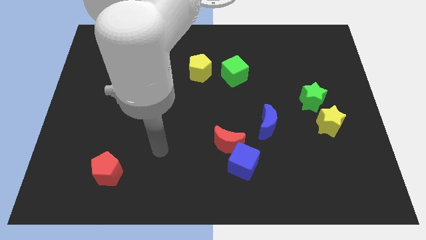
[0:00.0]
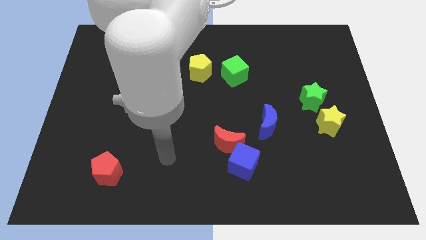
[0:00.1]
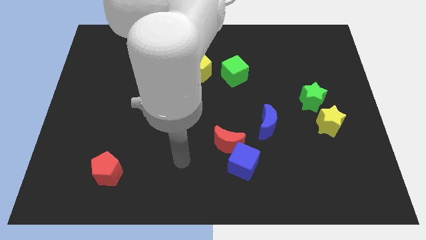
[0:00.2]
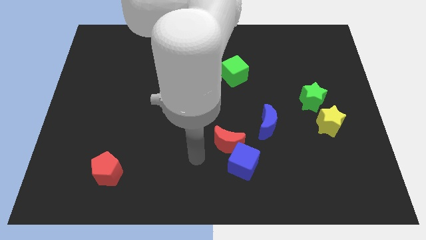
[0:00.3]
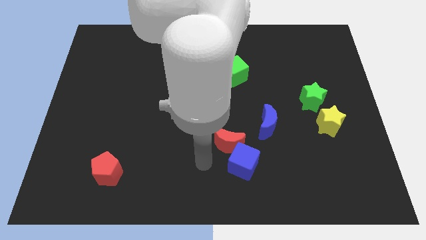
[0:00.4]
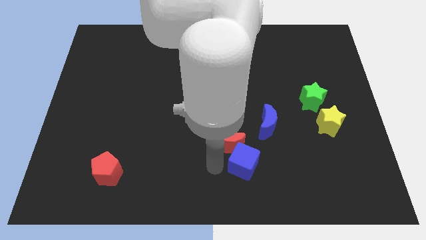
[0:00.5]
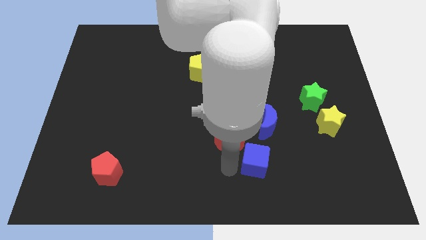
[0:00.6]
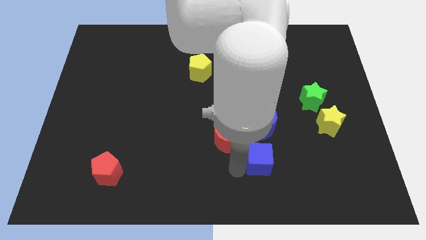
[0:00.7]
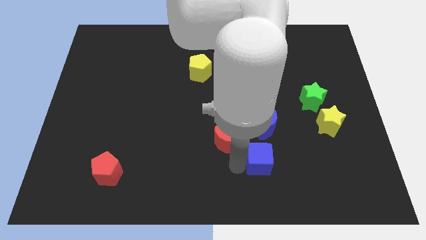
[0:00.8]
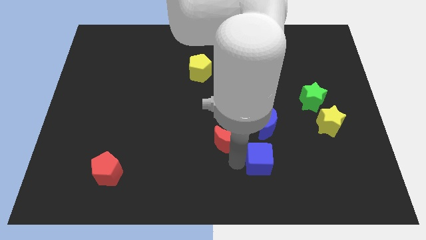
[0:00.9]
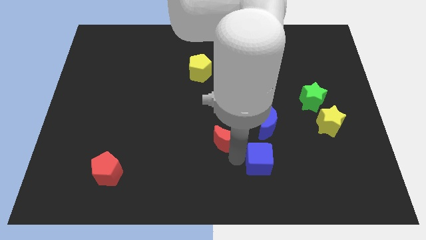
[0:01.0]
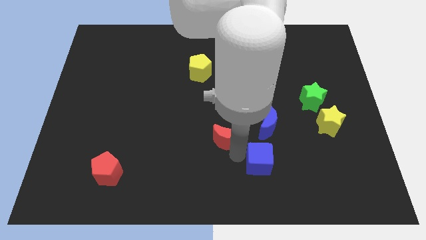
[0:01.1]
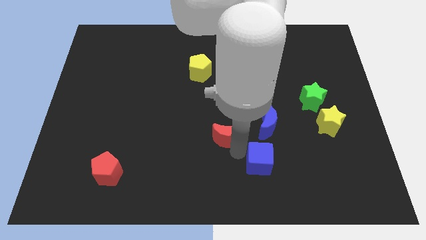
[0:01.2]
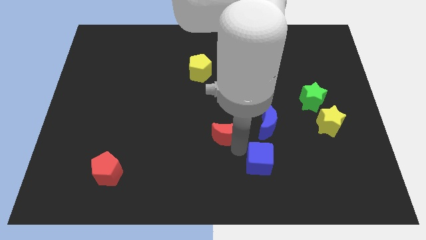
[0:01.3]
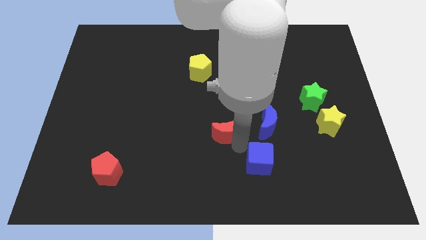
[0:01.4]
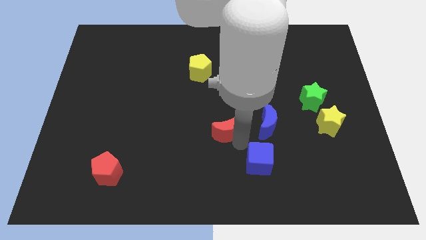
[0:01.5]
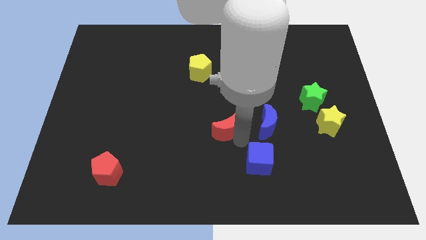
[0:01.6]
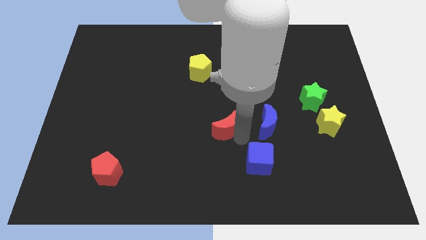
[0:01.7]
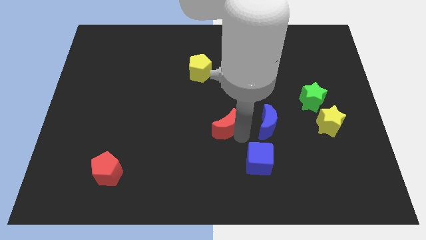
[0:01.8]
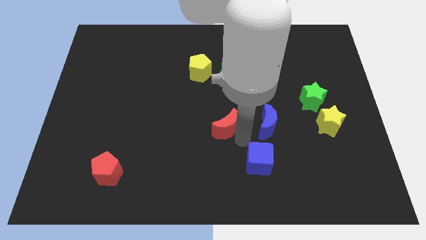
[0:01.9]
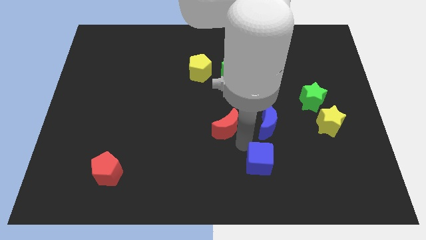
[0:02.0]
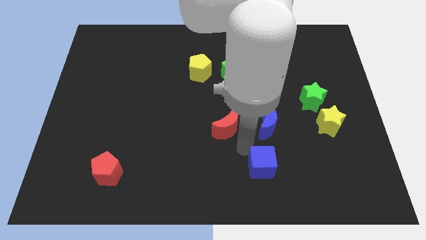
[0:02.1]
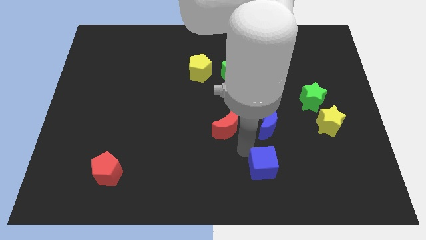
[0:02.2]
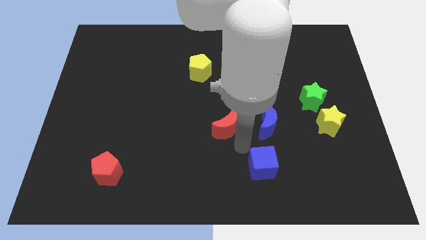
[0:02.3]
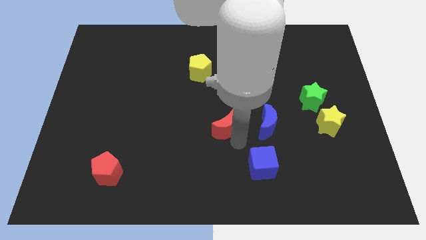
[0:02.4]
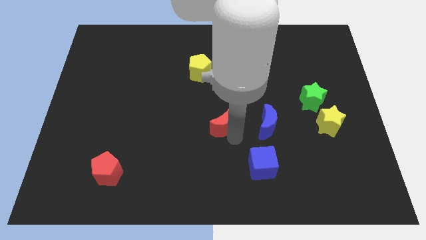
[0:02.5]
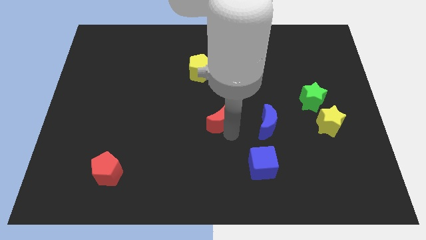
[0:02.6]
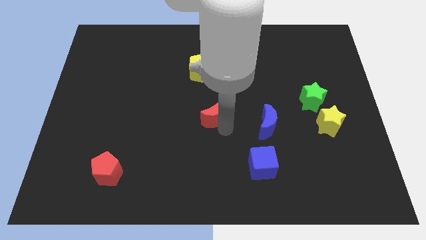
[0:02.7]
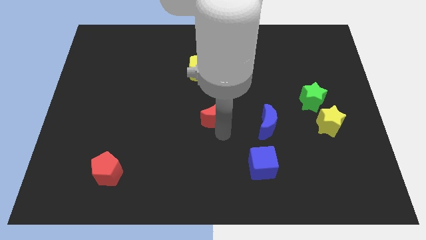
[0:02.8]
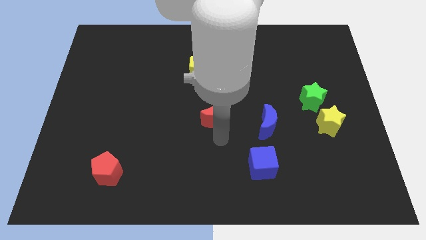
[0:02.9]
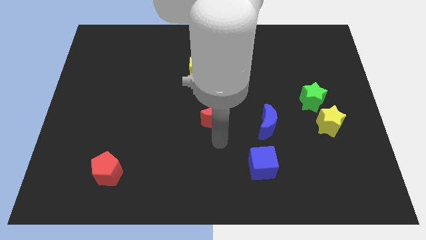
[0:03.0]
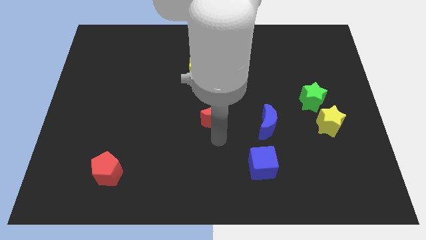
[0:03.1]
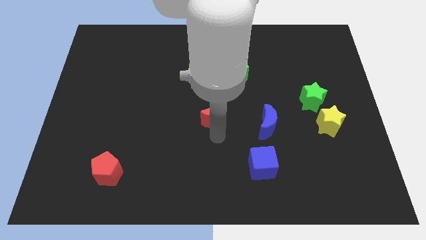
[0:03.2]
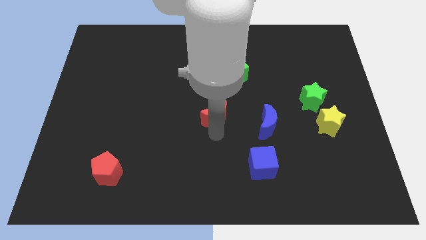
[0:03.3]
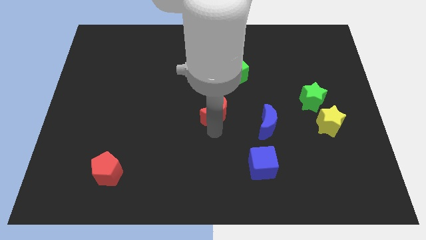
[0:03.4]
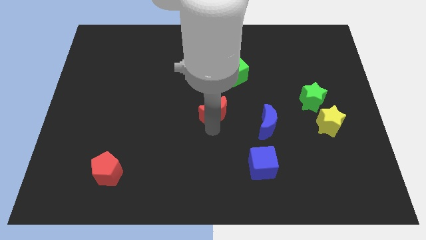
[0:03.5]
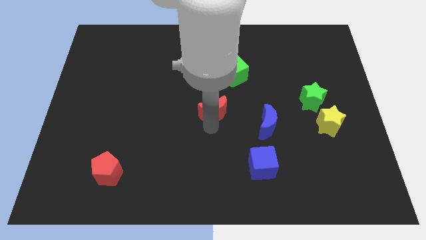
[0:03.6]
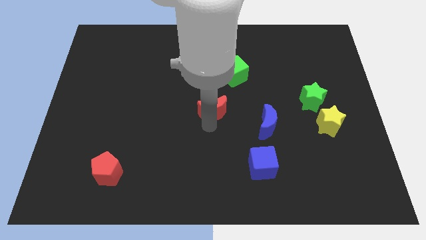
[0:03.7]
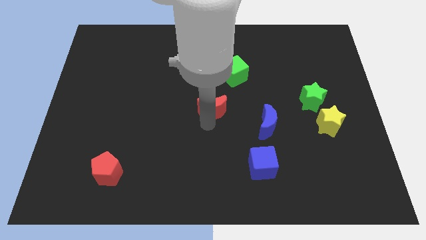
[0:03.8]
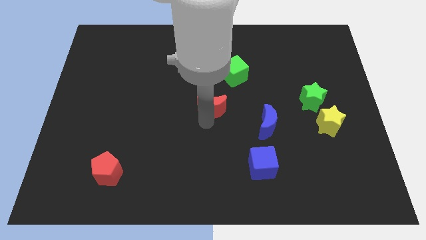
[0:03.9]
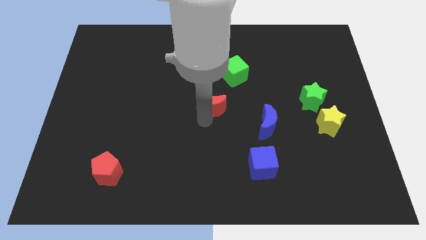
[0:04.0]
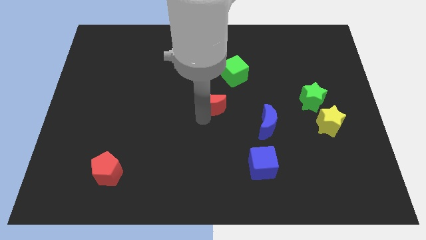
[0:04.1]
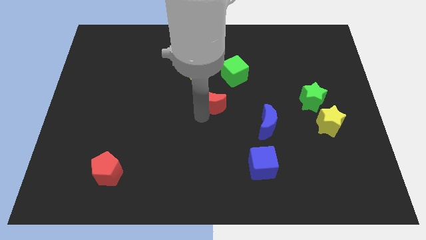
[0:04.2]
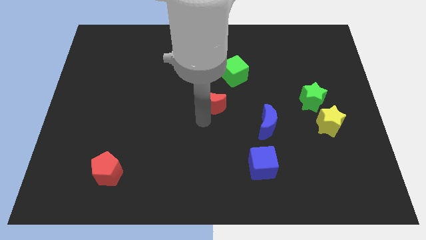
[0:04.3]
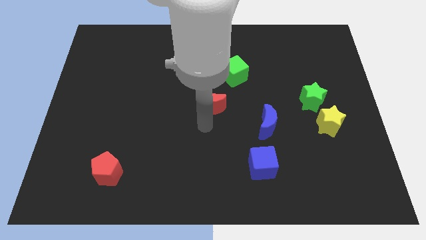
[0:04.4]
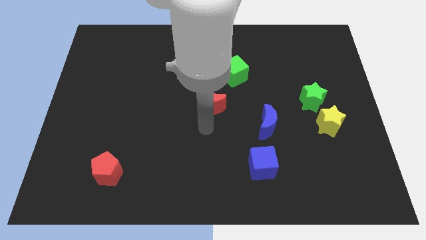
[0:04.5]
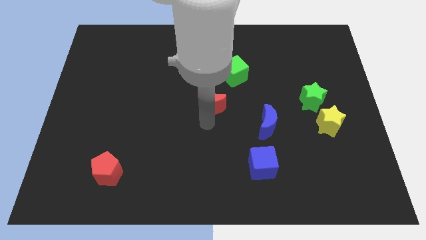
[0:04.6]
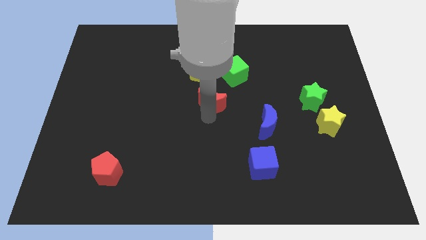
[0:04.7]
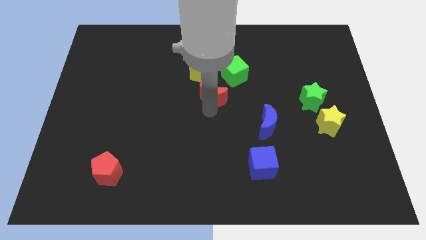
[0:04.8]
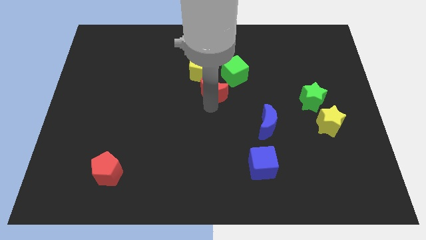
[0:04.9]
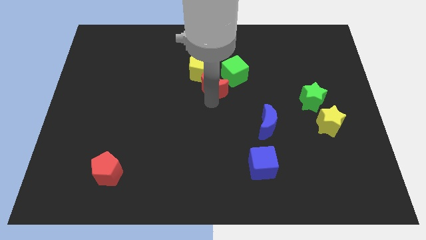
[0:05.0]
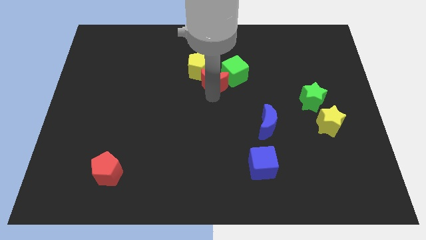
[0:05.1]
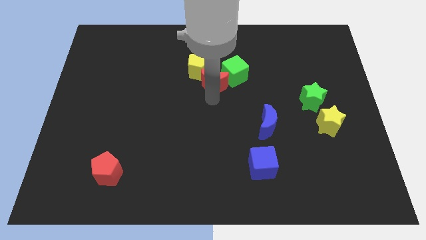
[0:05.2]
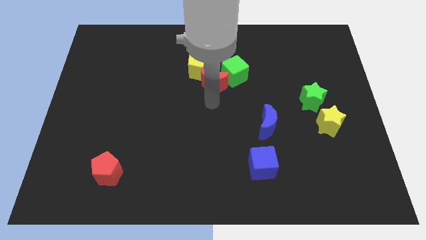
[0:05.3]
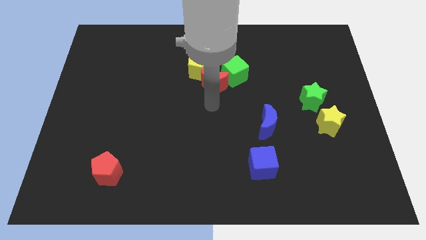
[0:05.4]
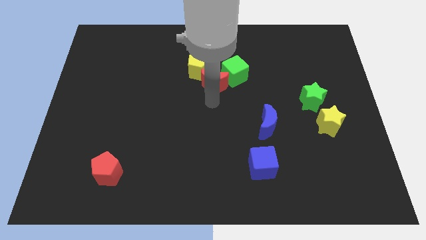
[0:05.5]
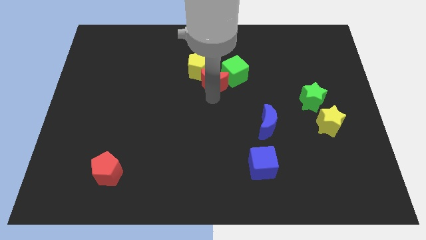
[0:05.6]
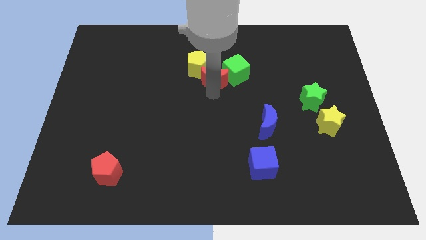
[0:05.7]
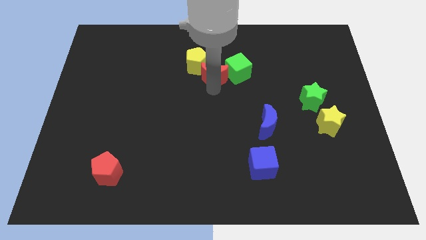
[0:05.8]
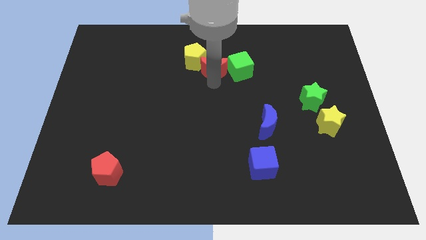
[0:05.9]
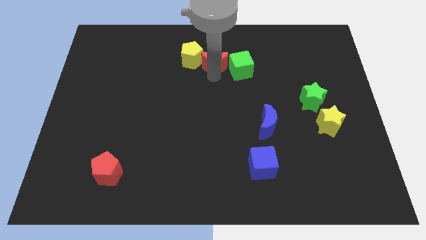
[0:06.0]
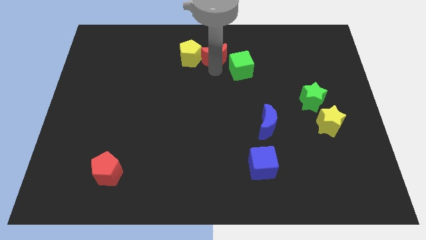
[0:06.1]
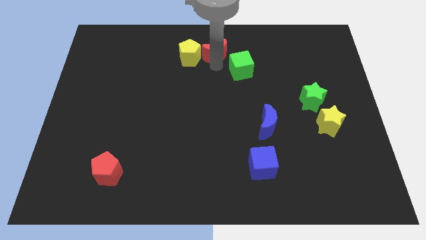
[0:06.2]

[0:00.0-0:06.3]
put the red moon diagonally up and to the right of the yellow pentagon

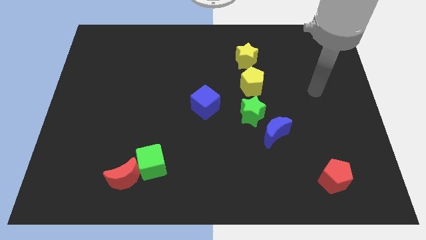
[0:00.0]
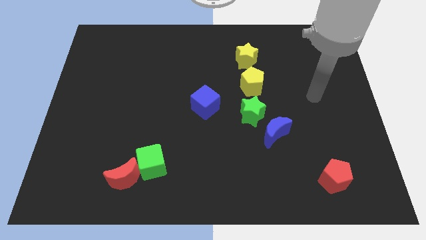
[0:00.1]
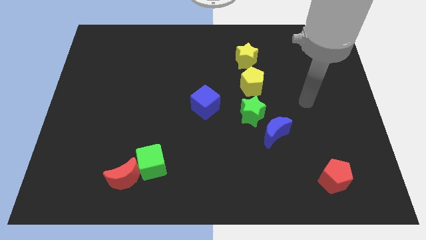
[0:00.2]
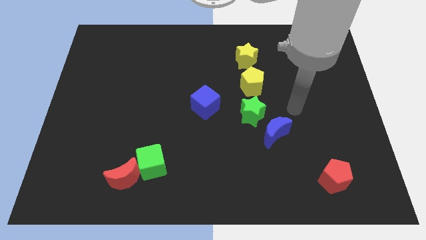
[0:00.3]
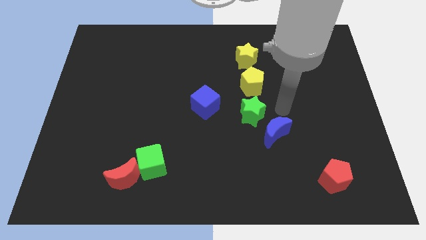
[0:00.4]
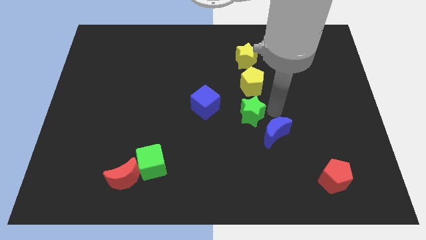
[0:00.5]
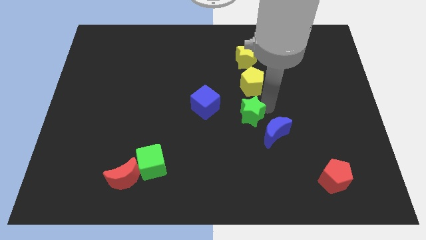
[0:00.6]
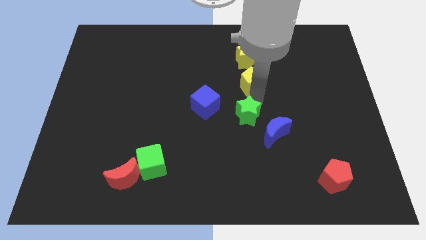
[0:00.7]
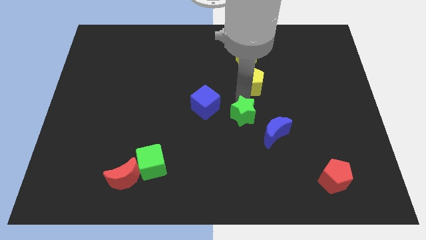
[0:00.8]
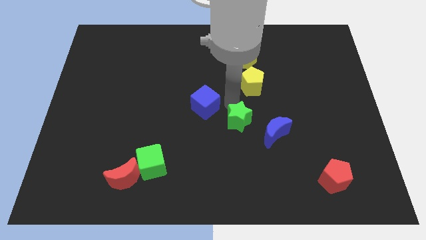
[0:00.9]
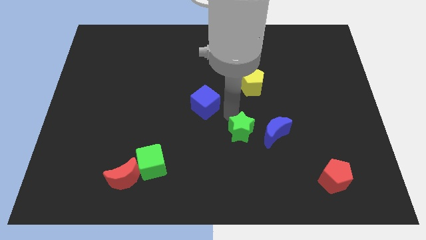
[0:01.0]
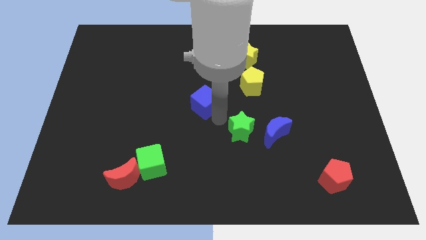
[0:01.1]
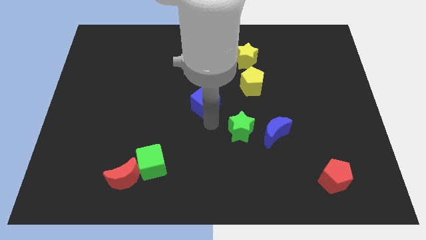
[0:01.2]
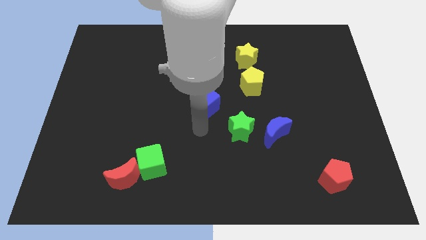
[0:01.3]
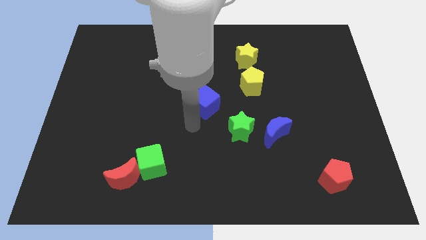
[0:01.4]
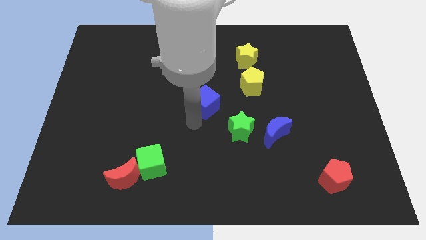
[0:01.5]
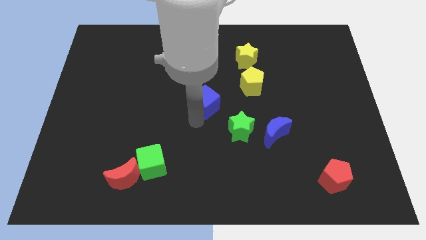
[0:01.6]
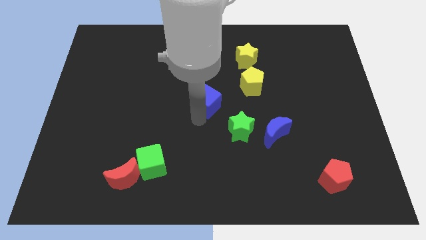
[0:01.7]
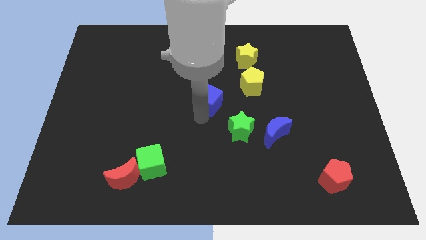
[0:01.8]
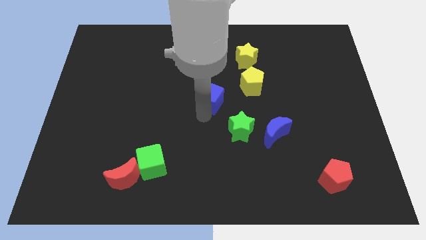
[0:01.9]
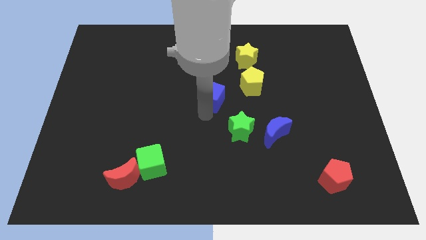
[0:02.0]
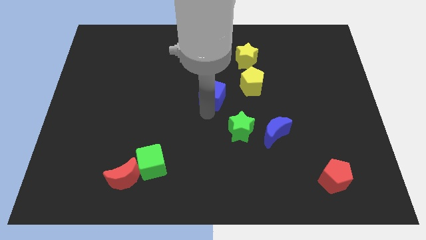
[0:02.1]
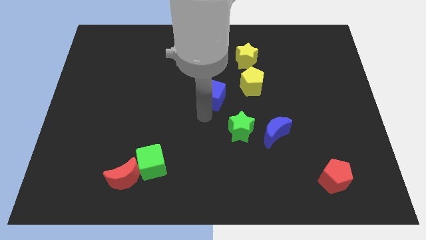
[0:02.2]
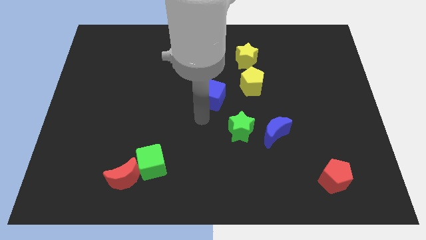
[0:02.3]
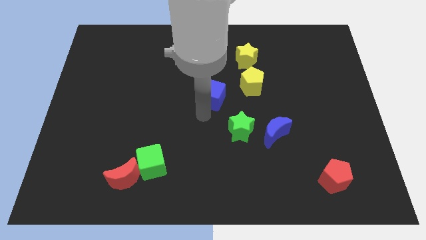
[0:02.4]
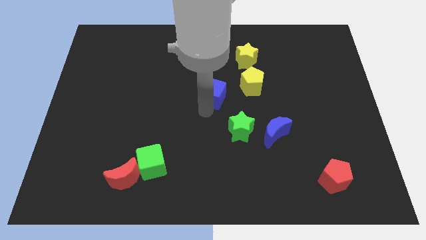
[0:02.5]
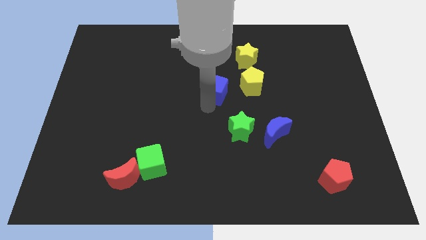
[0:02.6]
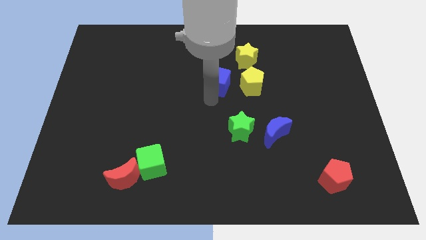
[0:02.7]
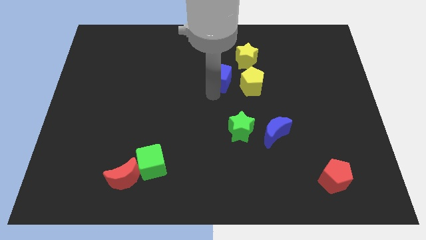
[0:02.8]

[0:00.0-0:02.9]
slide the blue cube to the top left of the yellow pentagon
